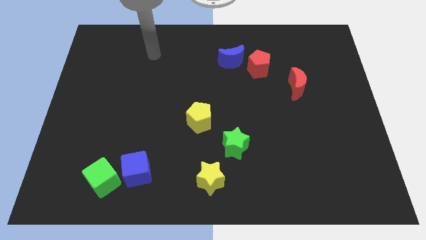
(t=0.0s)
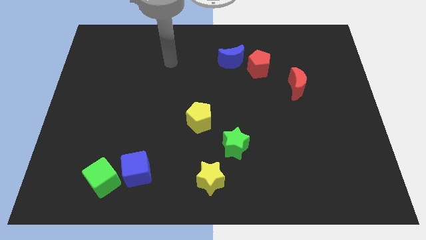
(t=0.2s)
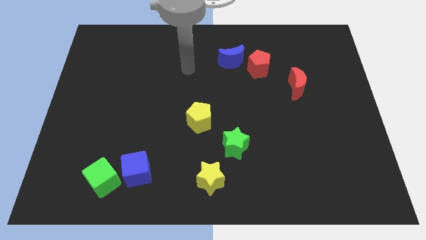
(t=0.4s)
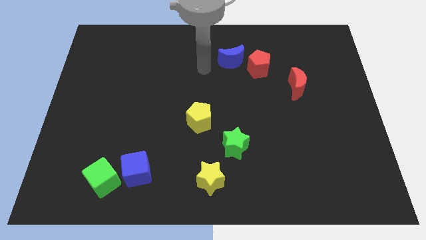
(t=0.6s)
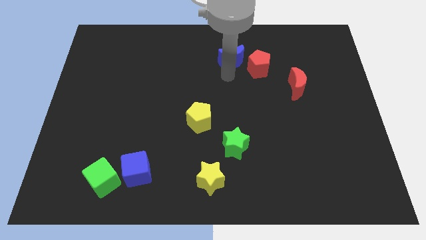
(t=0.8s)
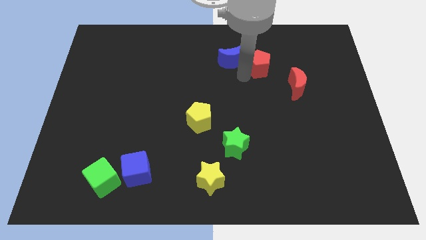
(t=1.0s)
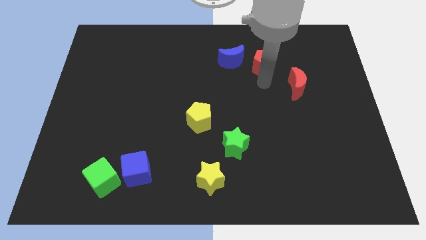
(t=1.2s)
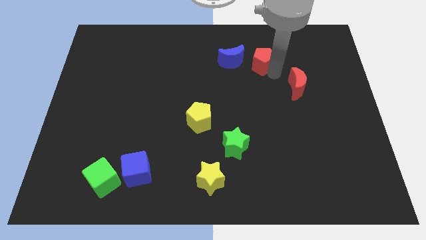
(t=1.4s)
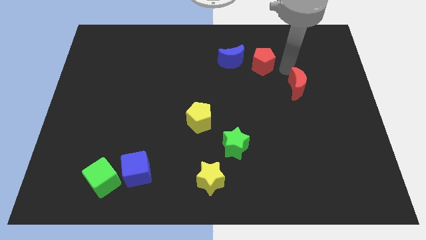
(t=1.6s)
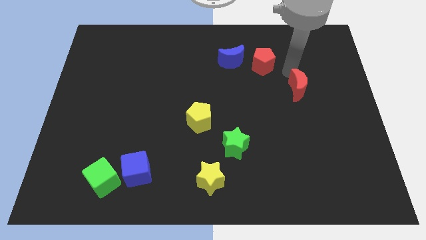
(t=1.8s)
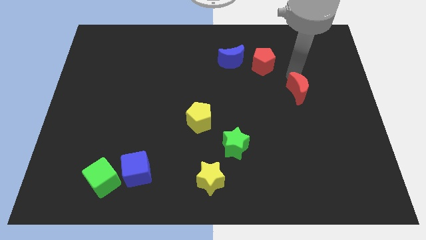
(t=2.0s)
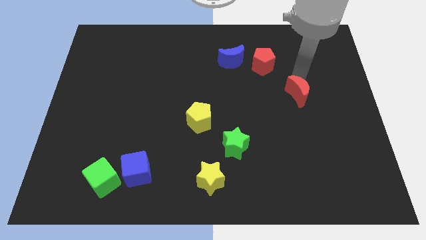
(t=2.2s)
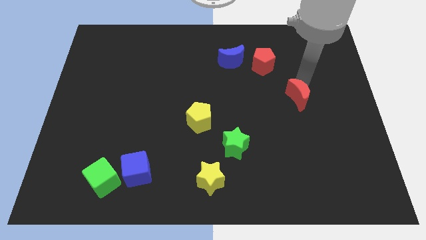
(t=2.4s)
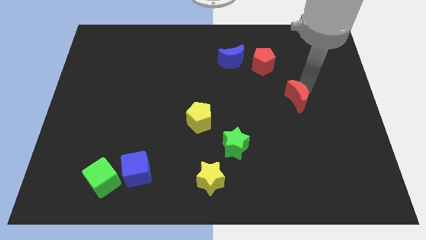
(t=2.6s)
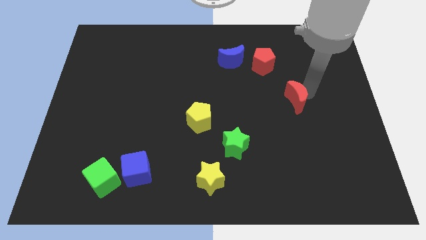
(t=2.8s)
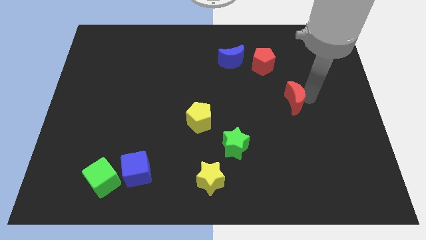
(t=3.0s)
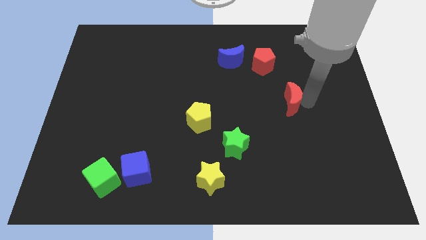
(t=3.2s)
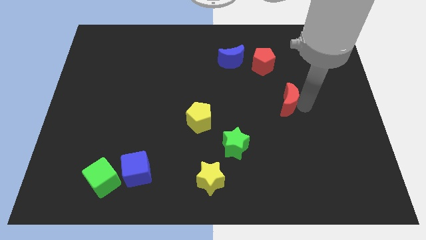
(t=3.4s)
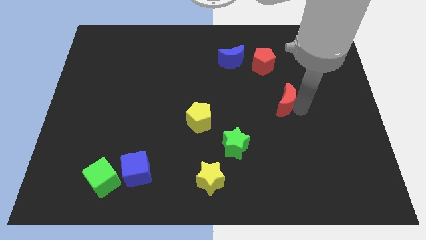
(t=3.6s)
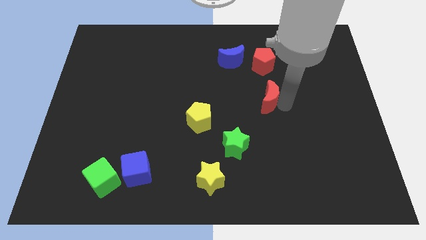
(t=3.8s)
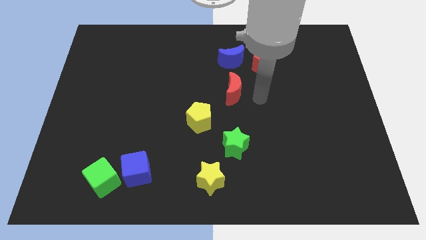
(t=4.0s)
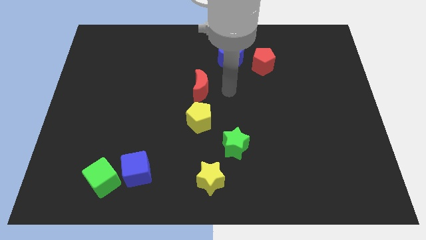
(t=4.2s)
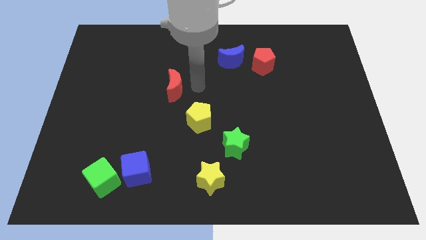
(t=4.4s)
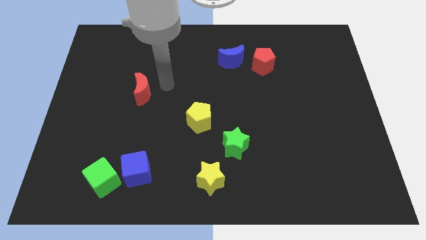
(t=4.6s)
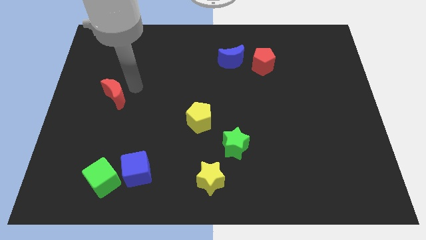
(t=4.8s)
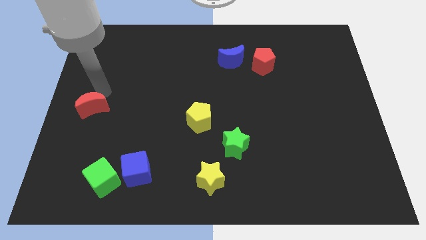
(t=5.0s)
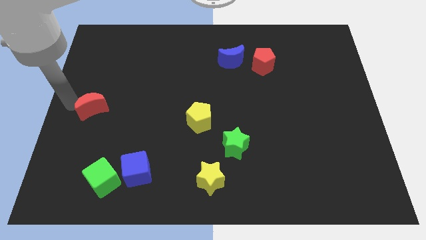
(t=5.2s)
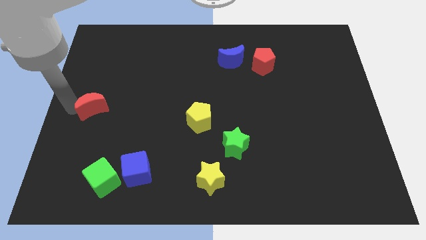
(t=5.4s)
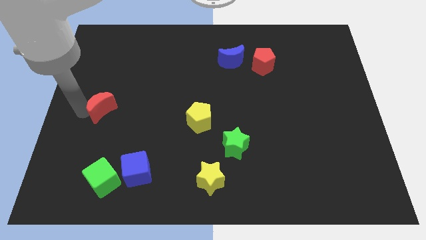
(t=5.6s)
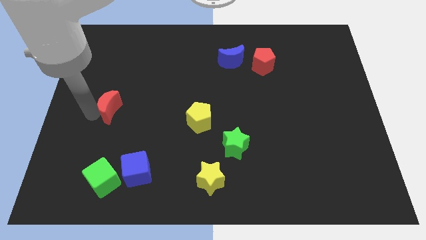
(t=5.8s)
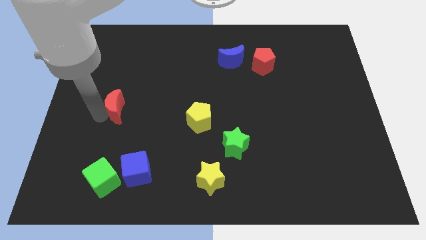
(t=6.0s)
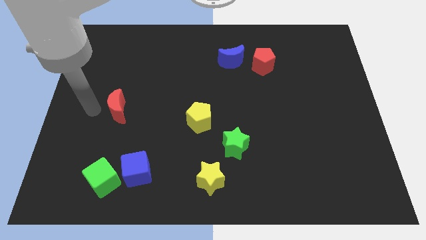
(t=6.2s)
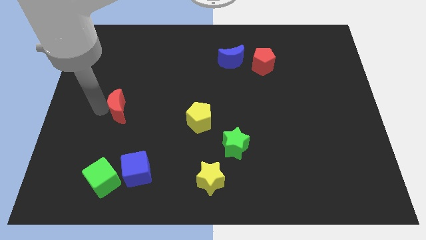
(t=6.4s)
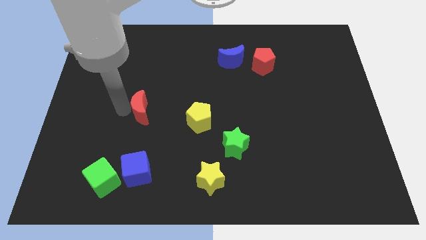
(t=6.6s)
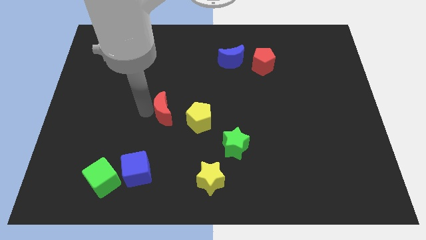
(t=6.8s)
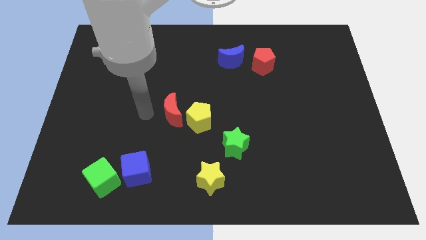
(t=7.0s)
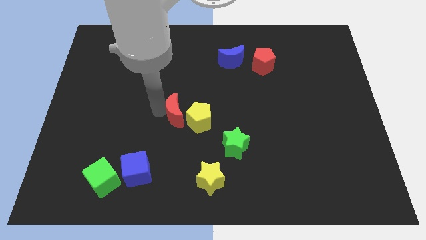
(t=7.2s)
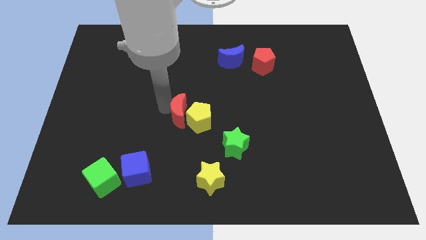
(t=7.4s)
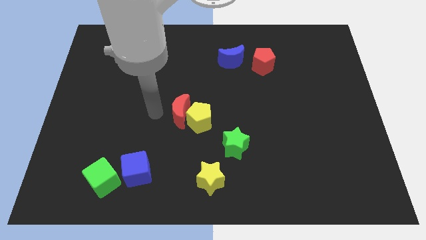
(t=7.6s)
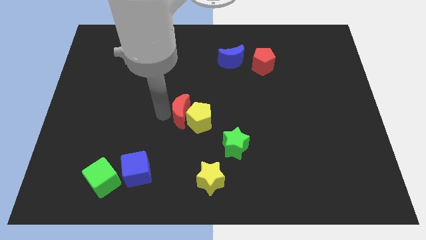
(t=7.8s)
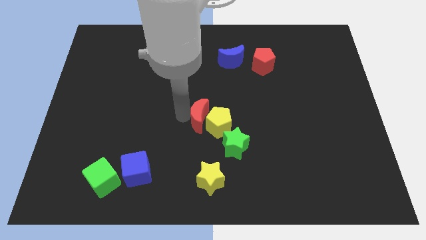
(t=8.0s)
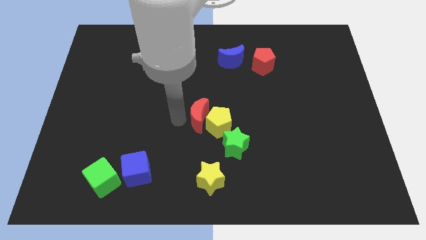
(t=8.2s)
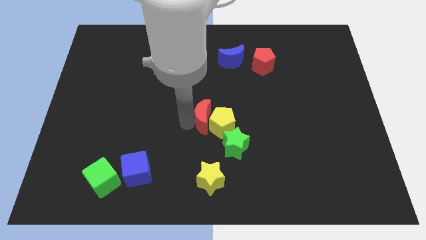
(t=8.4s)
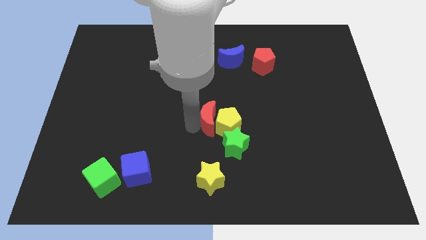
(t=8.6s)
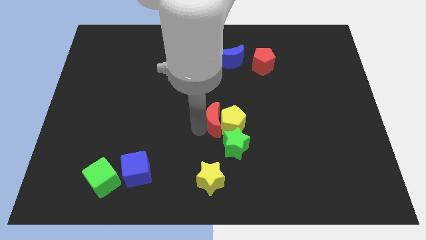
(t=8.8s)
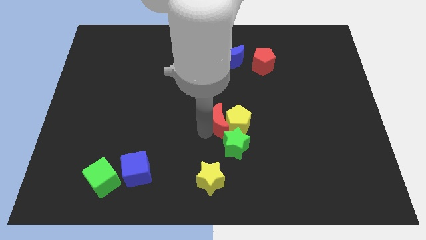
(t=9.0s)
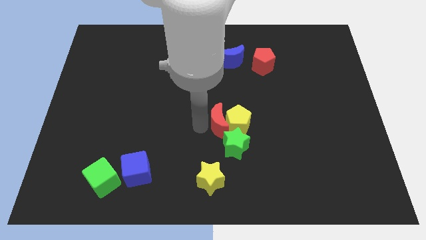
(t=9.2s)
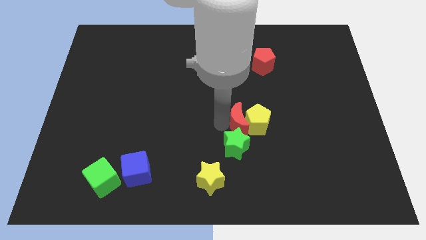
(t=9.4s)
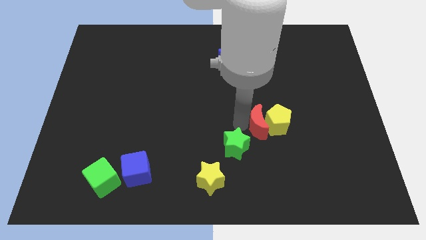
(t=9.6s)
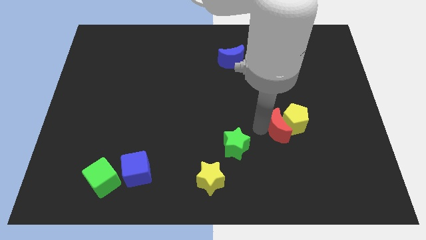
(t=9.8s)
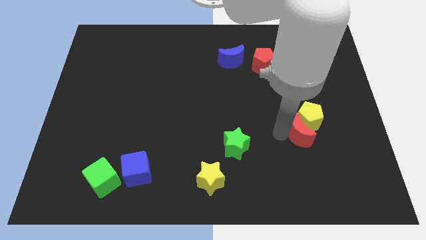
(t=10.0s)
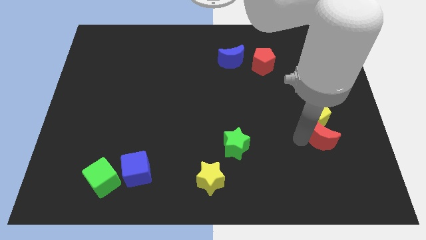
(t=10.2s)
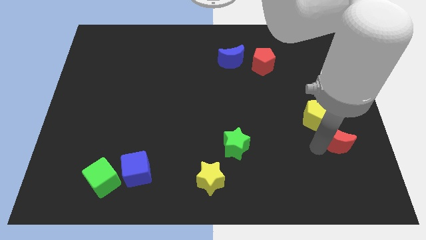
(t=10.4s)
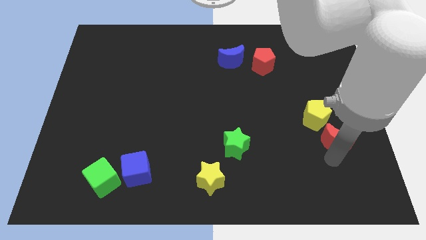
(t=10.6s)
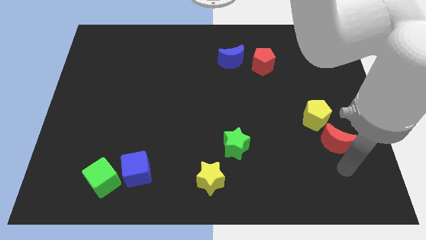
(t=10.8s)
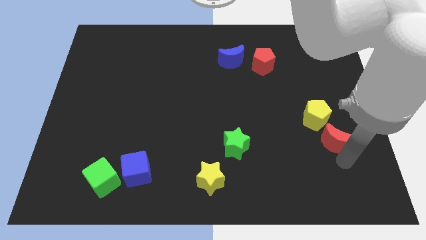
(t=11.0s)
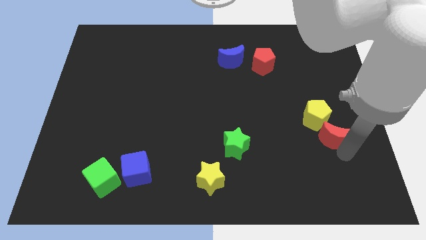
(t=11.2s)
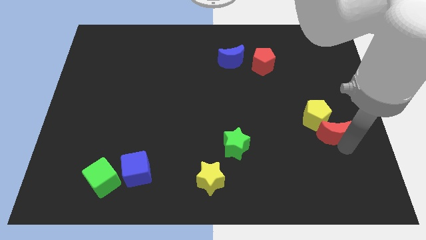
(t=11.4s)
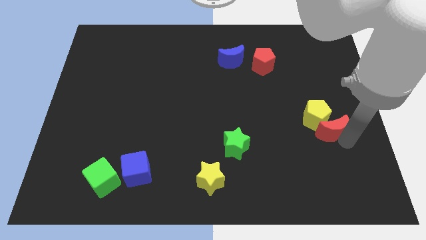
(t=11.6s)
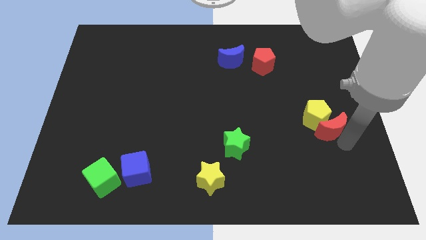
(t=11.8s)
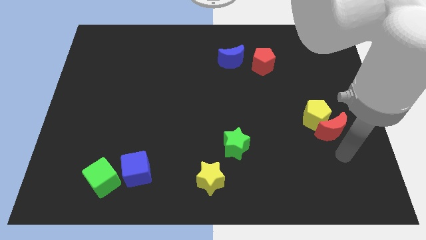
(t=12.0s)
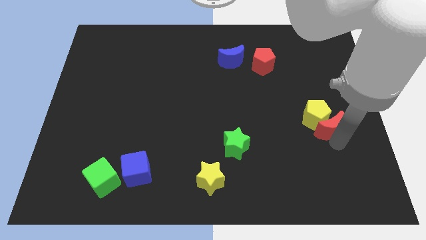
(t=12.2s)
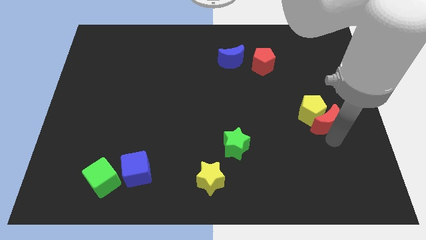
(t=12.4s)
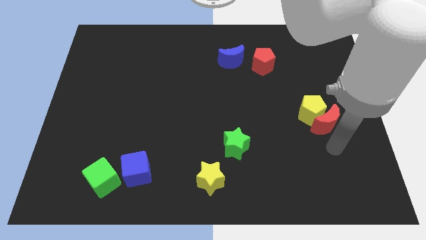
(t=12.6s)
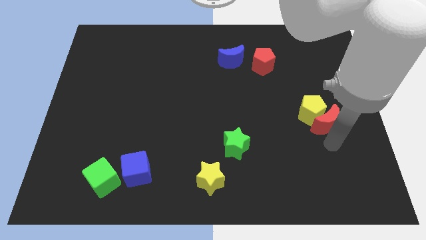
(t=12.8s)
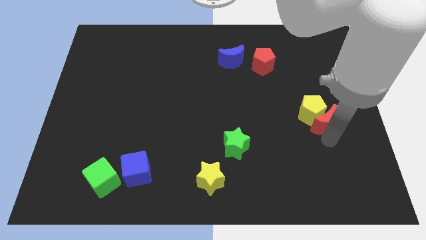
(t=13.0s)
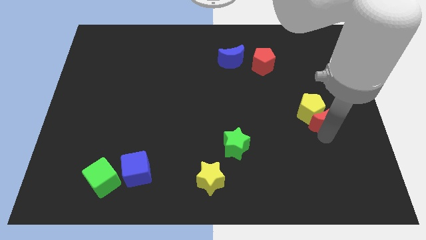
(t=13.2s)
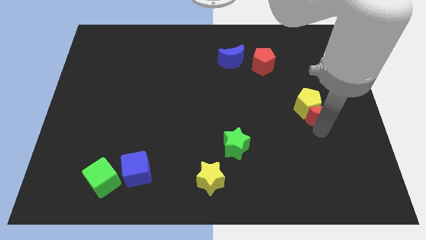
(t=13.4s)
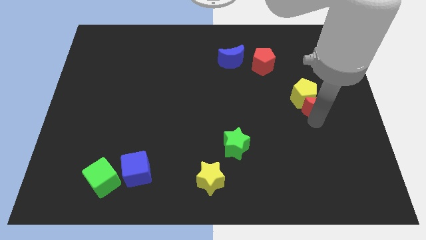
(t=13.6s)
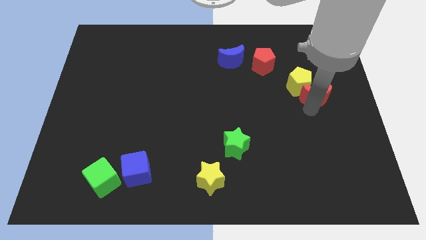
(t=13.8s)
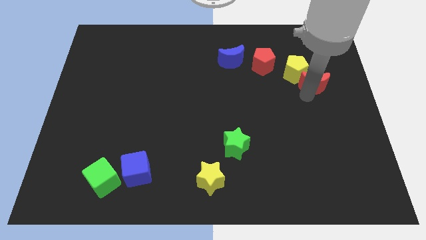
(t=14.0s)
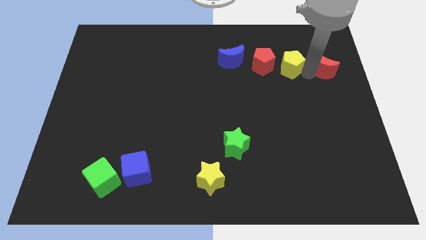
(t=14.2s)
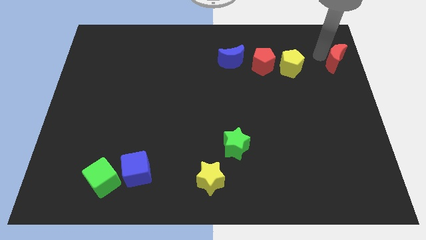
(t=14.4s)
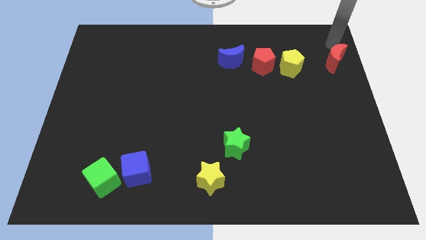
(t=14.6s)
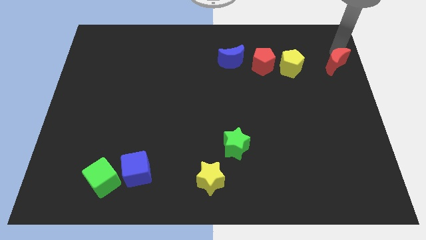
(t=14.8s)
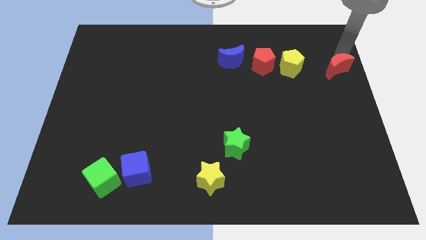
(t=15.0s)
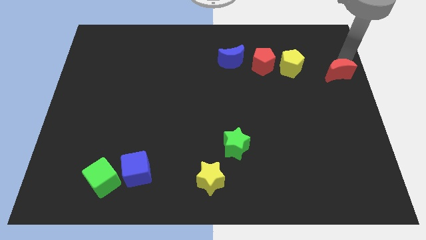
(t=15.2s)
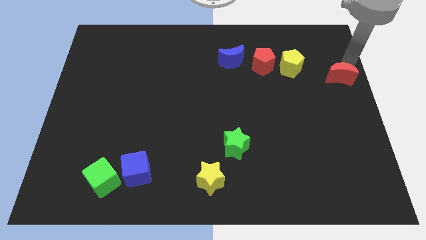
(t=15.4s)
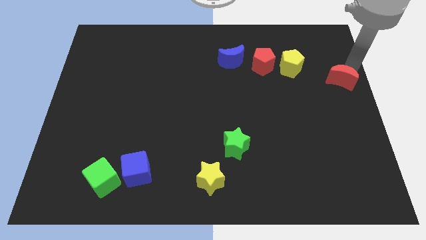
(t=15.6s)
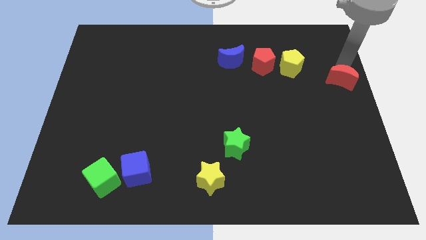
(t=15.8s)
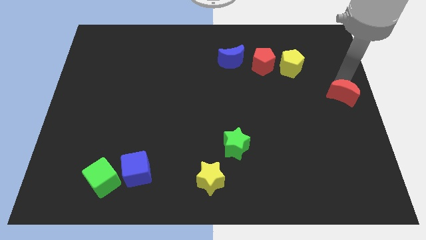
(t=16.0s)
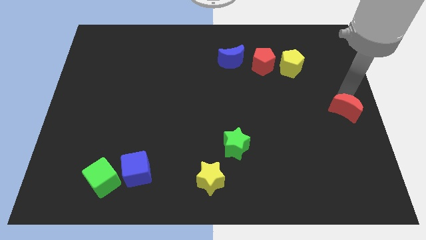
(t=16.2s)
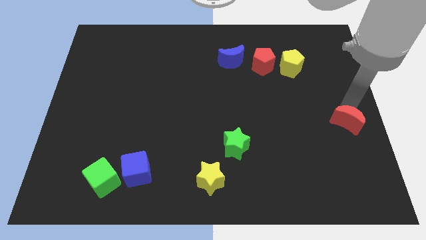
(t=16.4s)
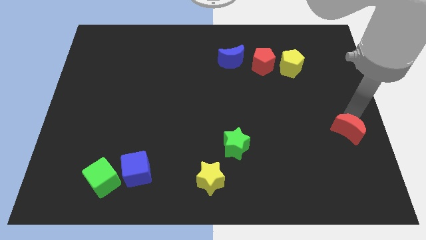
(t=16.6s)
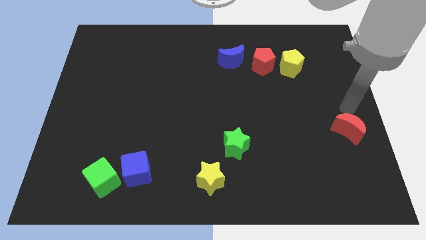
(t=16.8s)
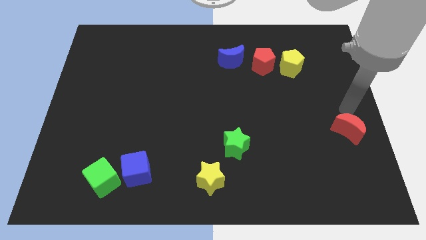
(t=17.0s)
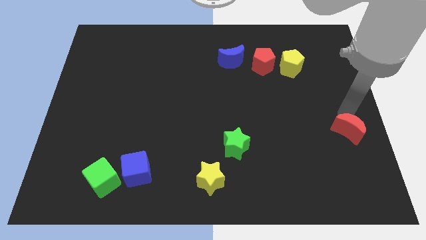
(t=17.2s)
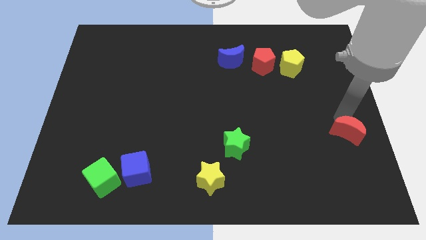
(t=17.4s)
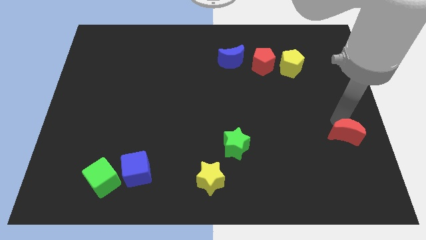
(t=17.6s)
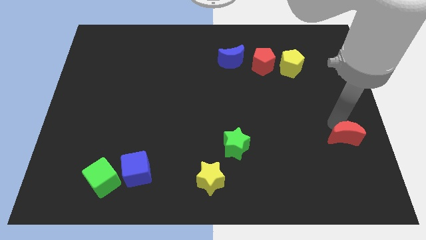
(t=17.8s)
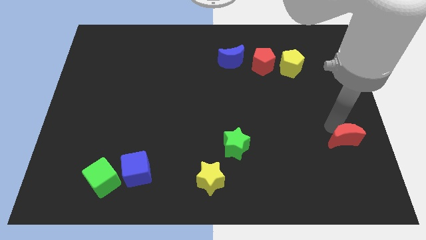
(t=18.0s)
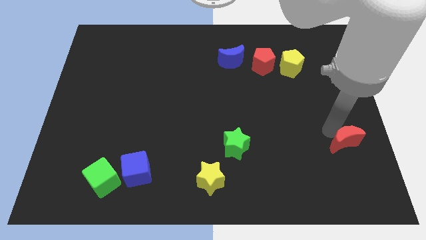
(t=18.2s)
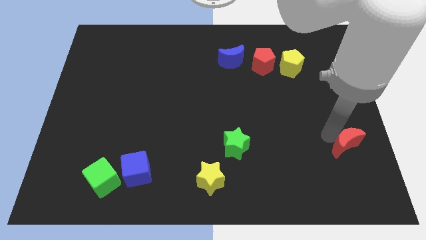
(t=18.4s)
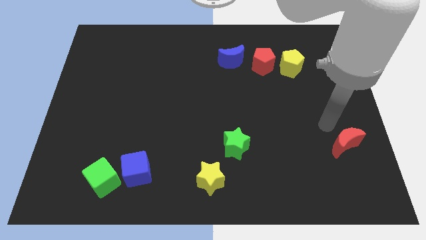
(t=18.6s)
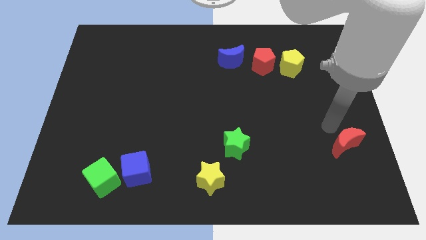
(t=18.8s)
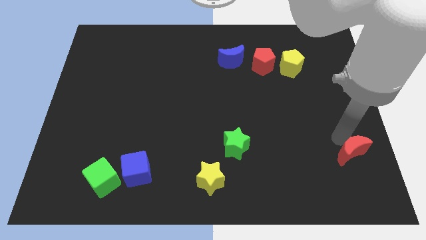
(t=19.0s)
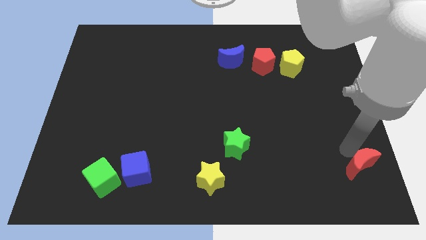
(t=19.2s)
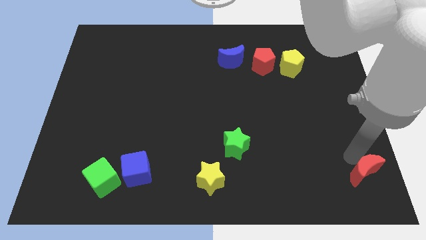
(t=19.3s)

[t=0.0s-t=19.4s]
slide the red moon to the bottom right
